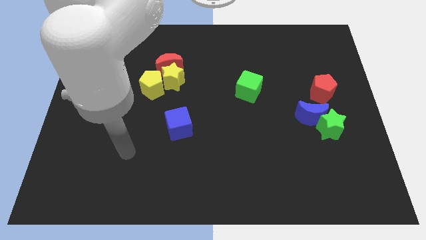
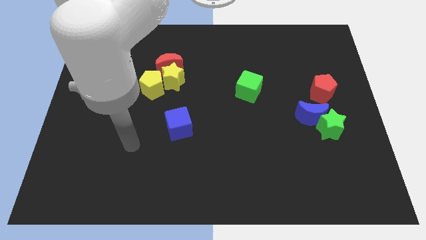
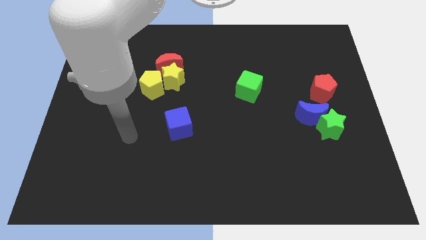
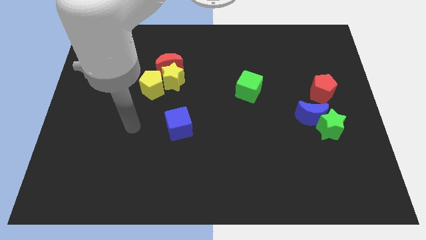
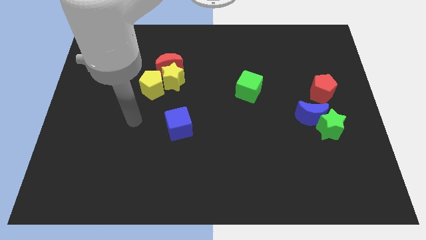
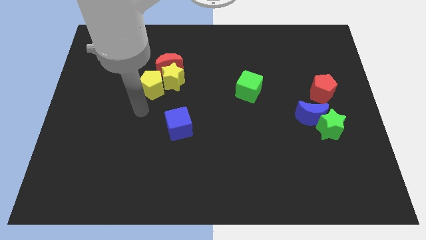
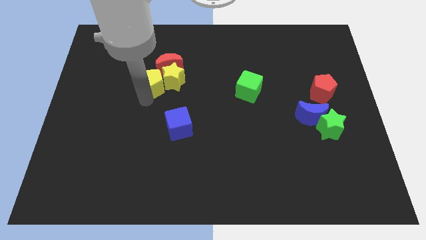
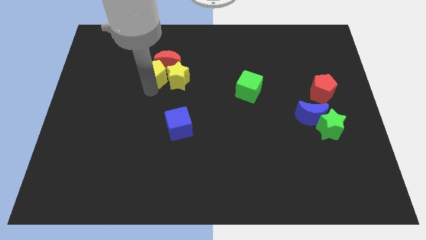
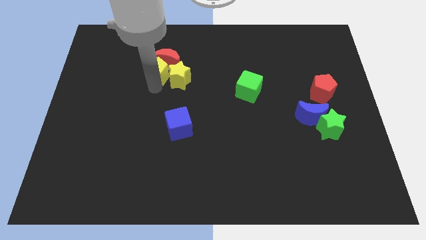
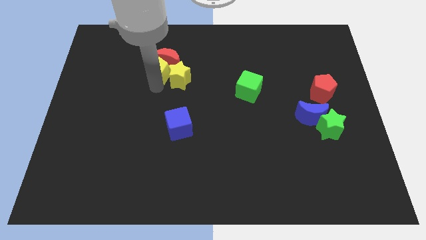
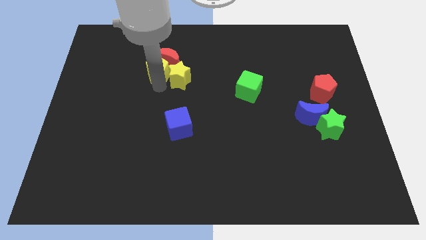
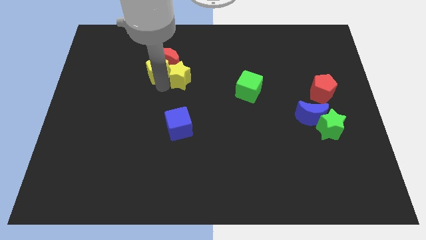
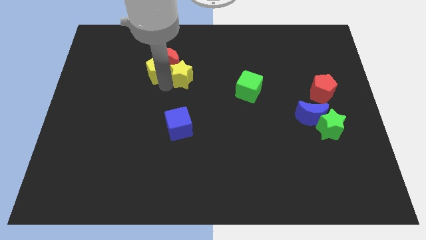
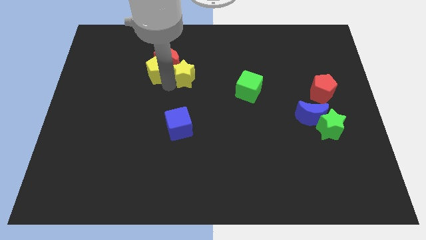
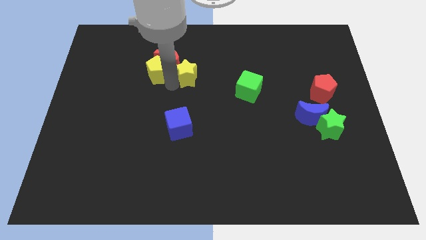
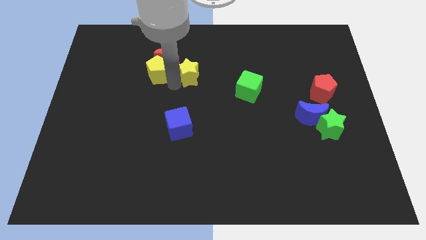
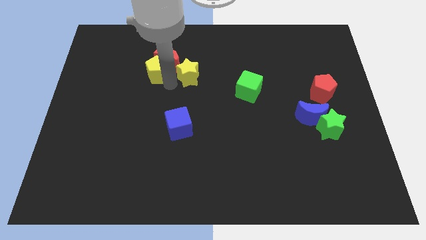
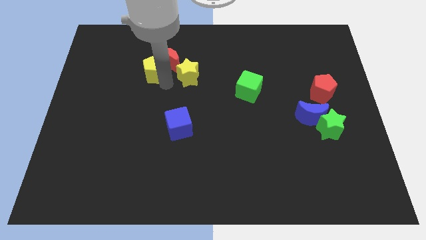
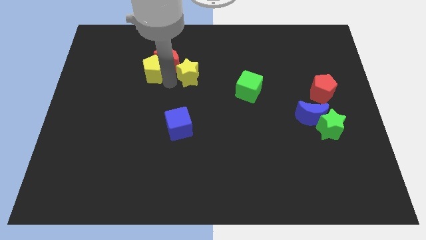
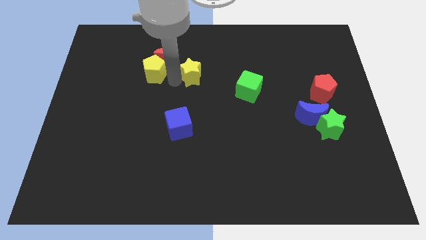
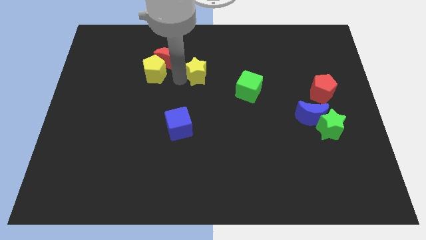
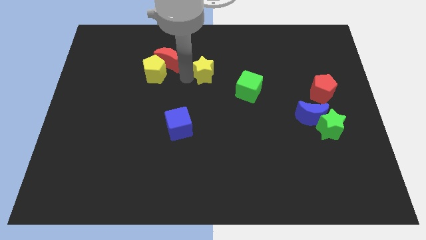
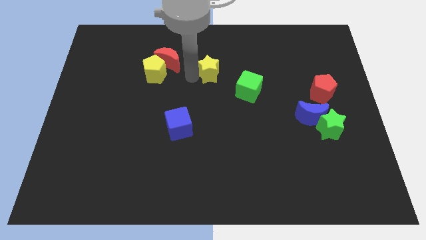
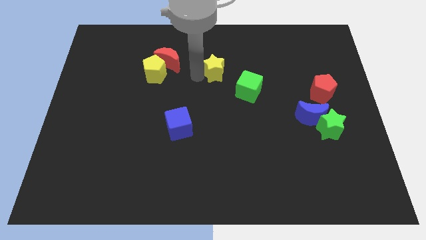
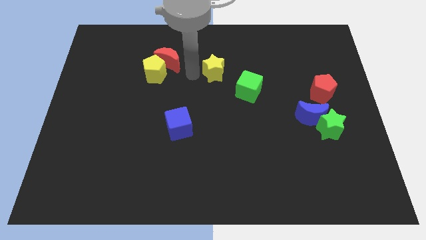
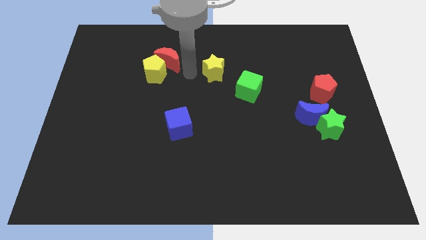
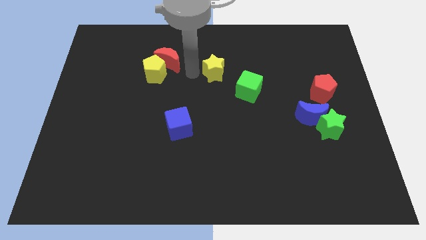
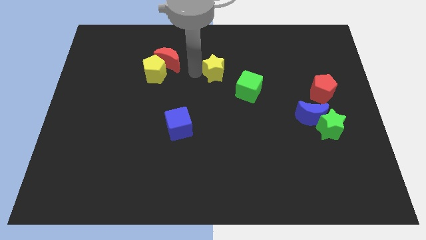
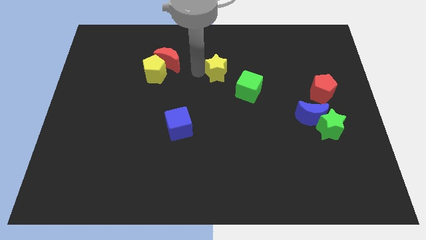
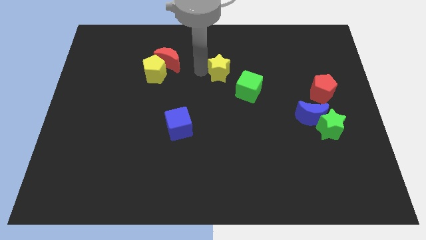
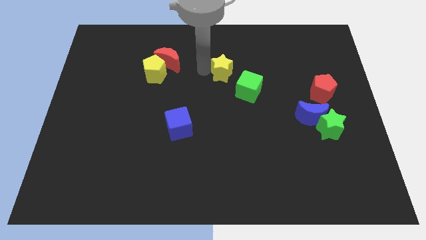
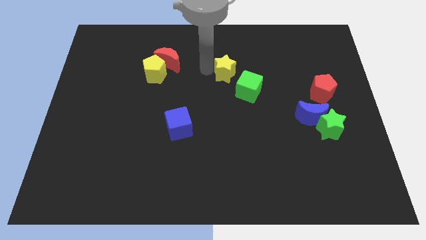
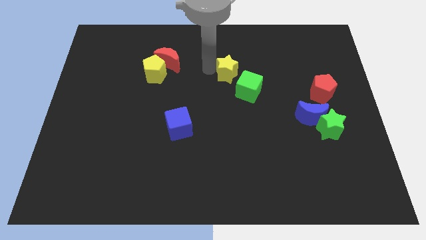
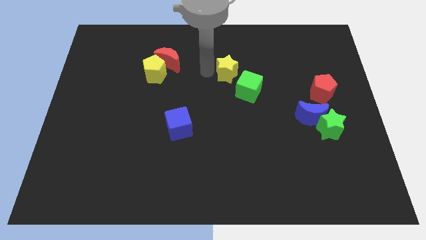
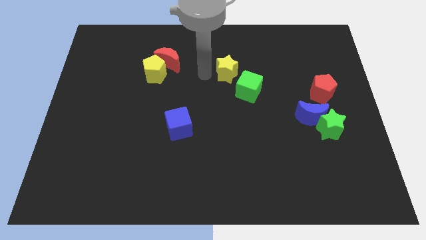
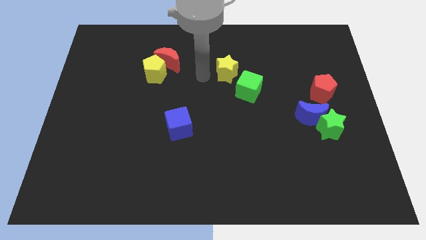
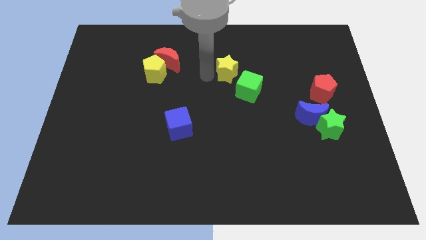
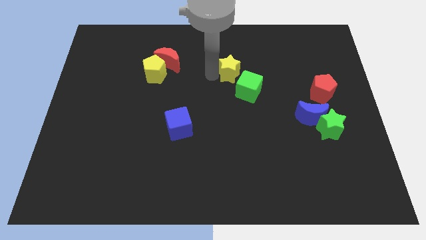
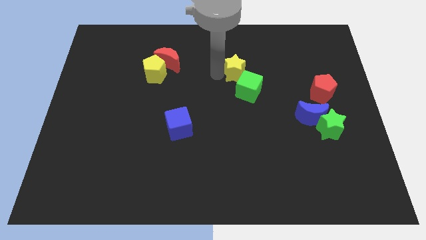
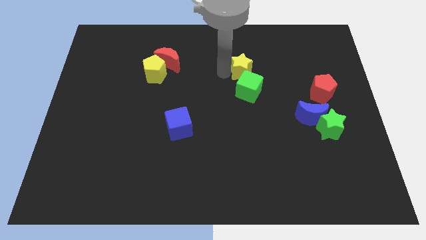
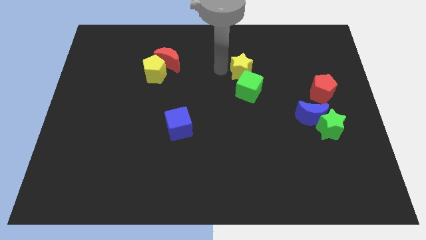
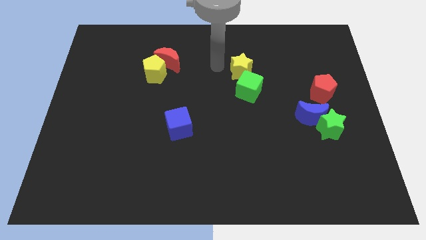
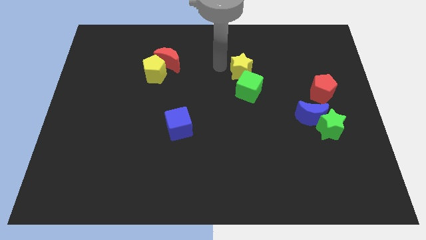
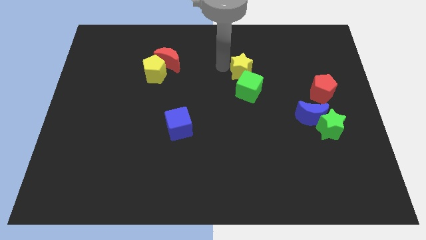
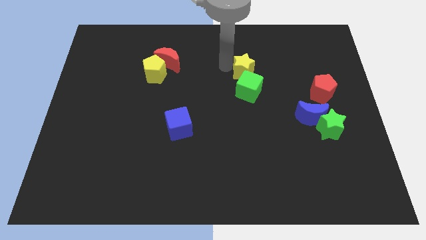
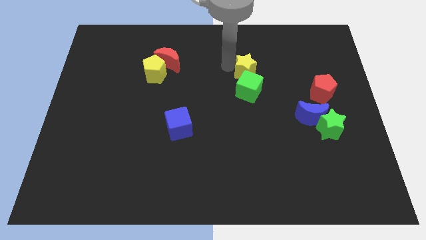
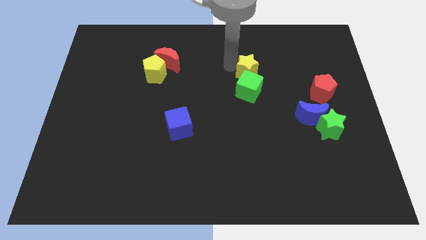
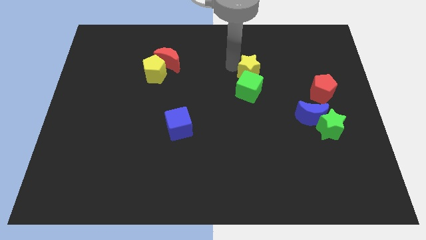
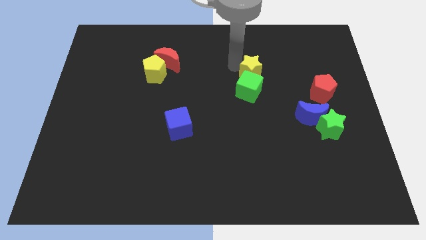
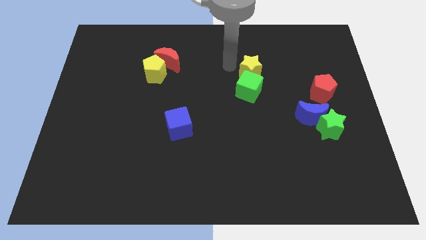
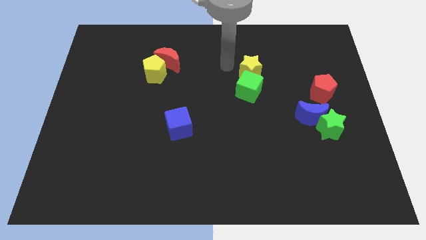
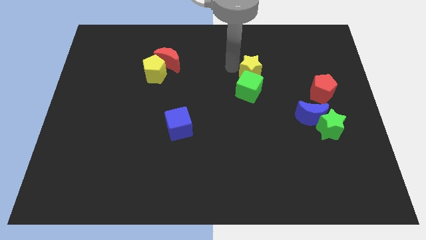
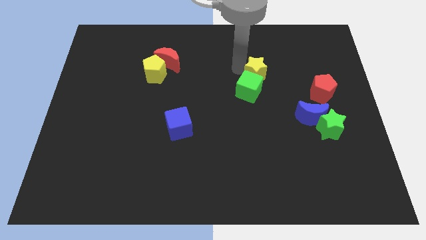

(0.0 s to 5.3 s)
move the yellow star to the right

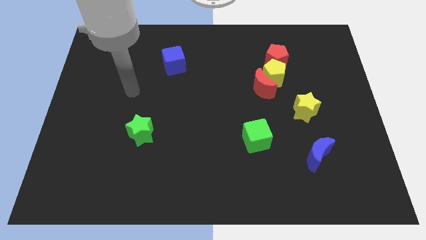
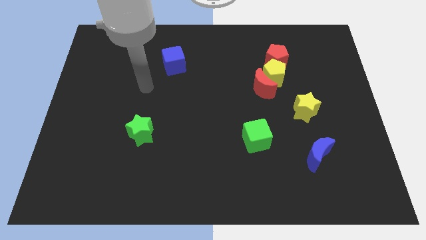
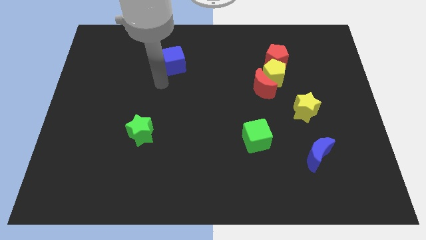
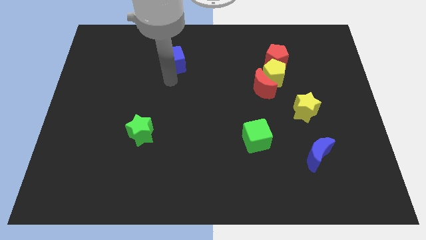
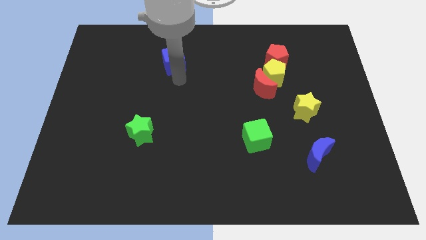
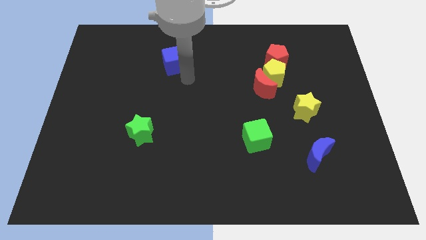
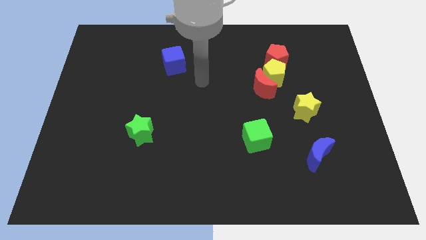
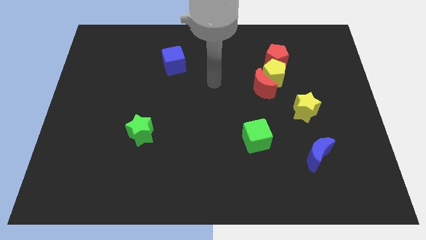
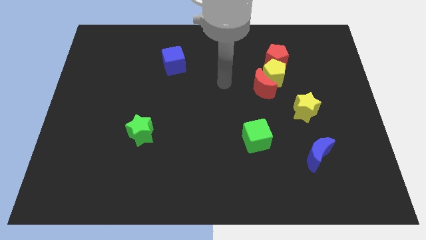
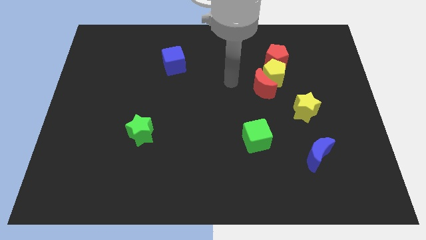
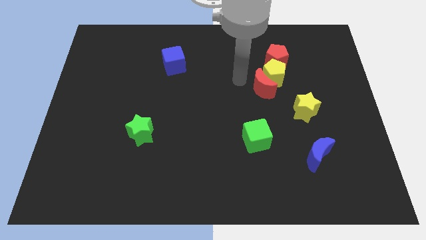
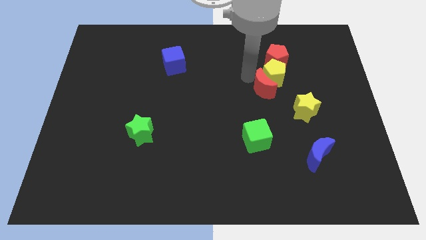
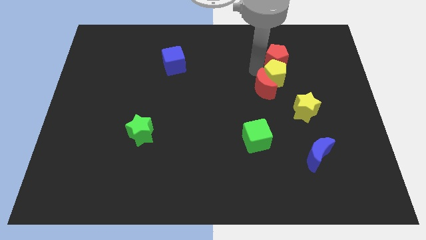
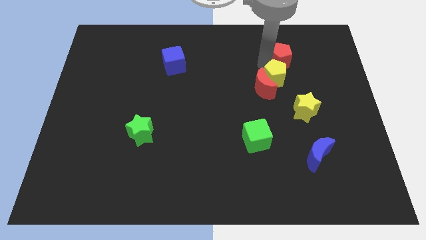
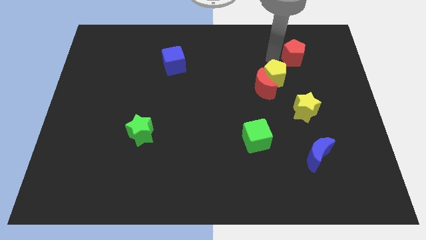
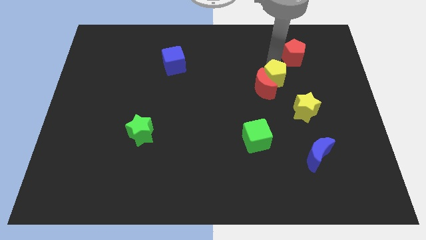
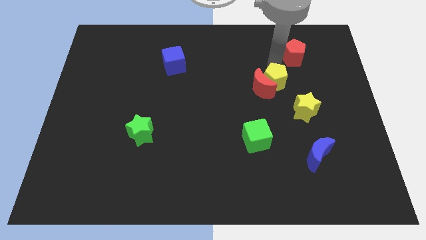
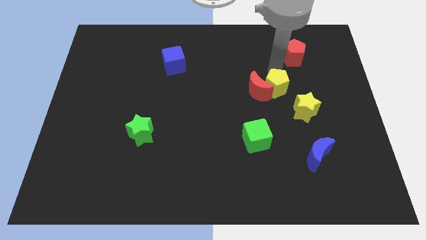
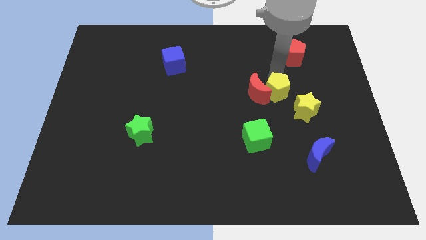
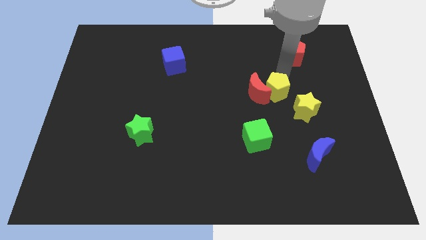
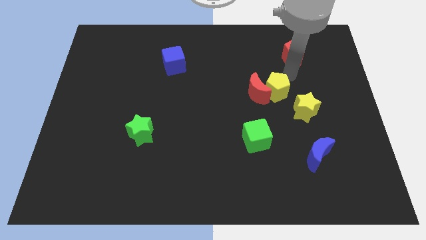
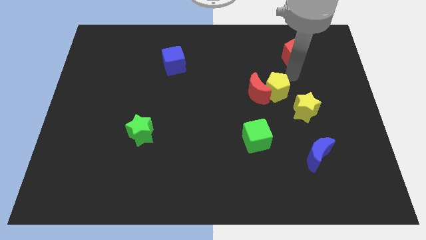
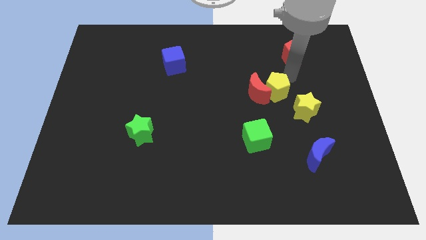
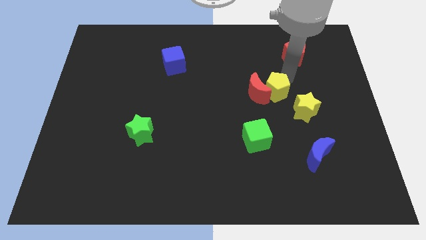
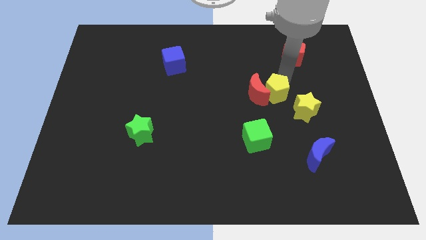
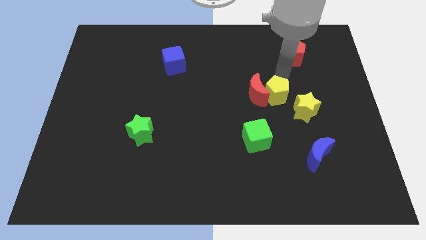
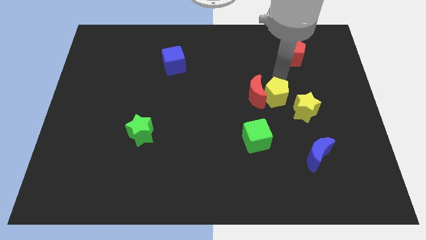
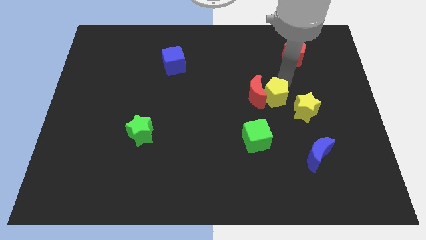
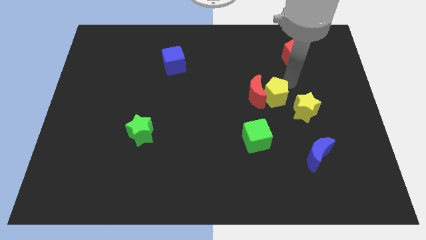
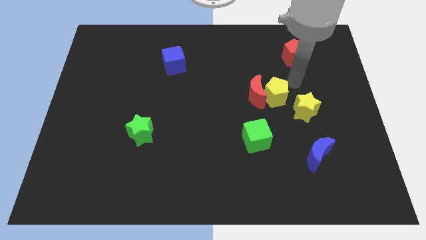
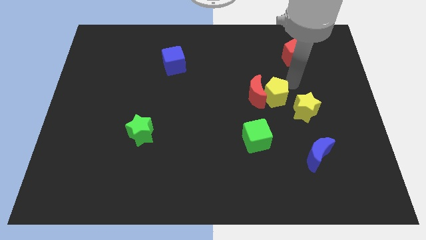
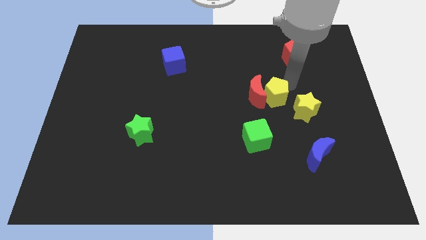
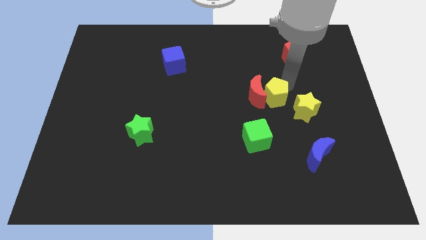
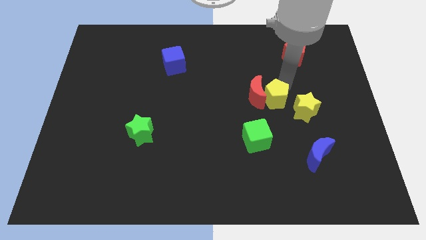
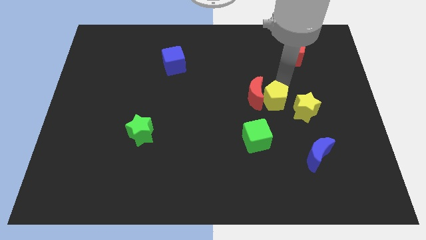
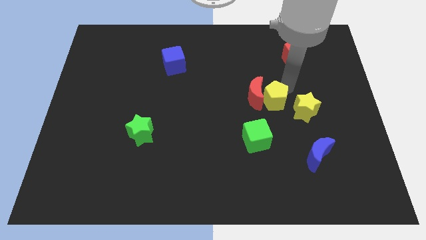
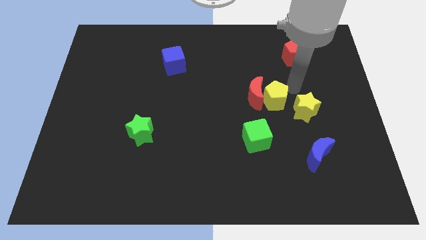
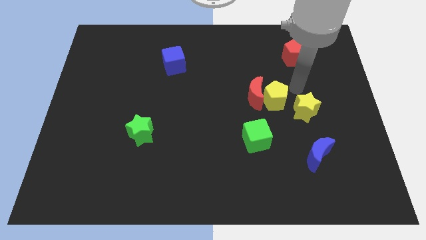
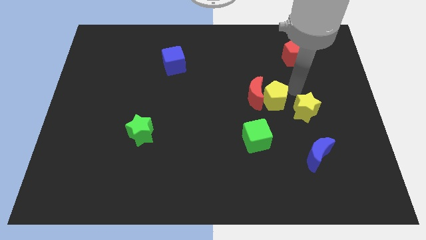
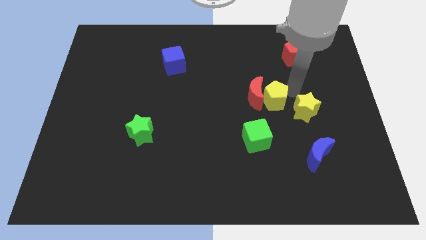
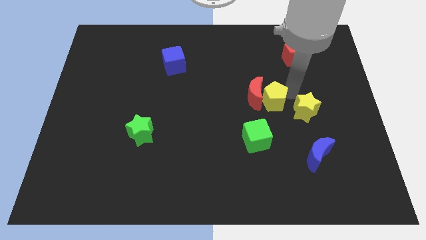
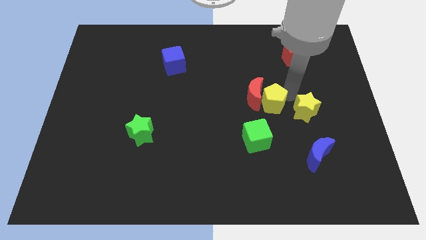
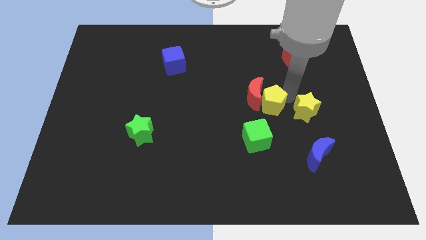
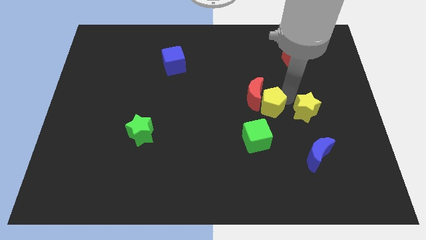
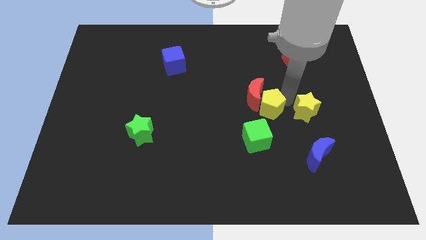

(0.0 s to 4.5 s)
slightly push the yellow pentagon diagonally downwards and left
